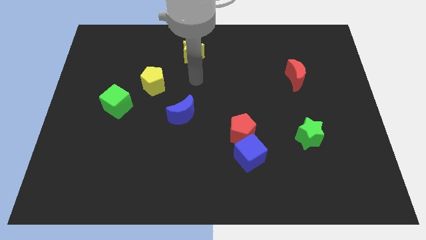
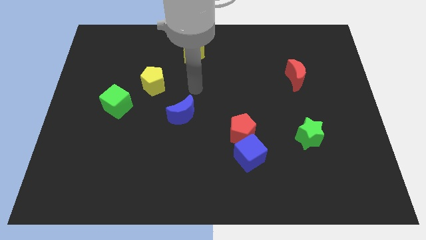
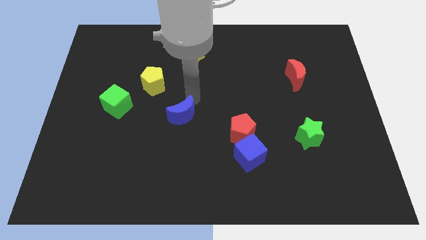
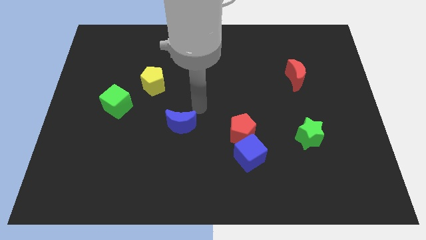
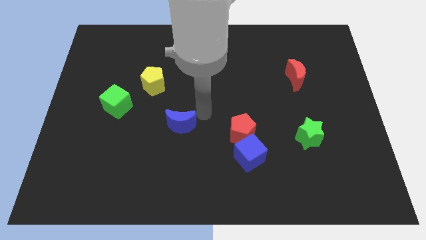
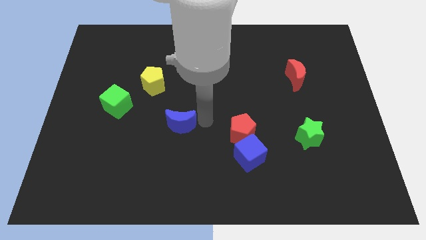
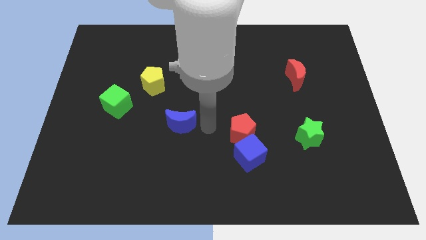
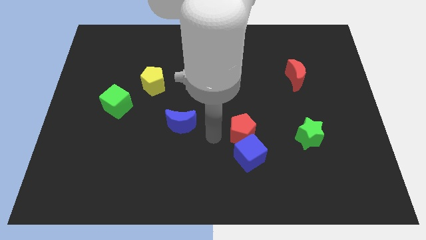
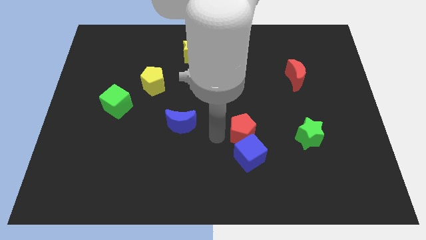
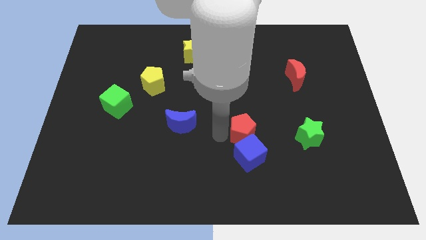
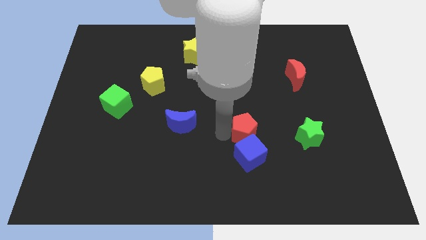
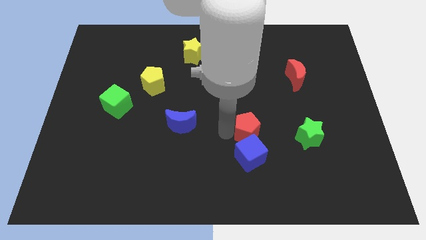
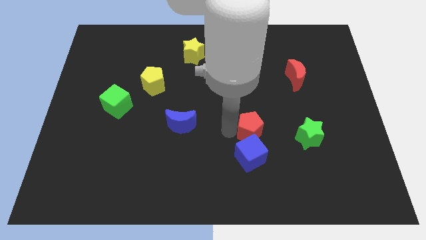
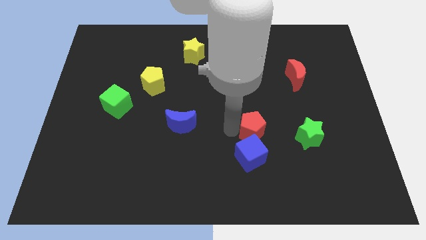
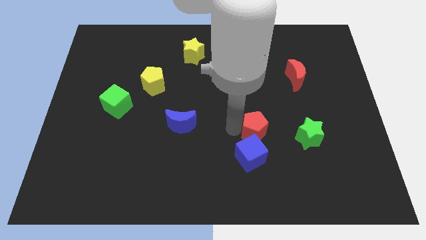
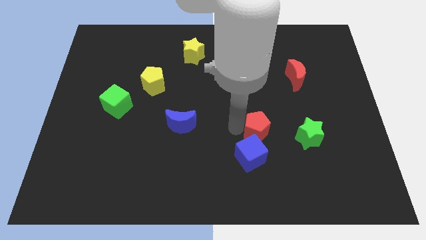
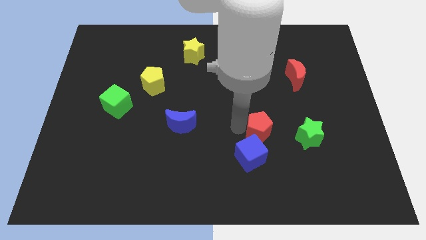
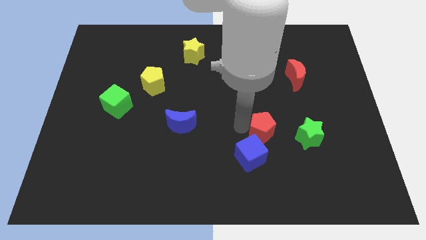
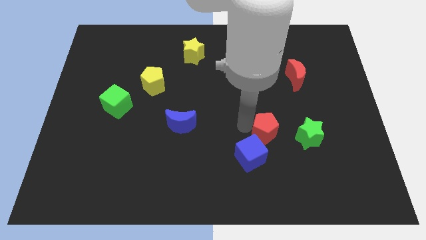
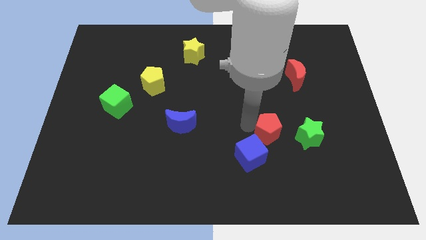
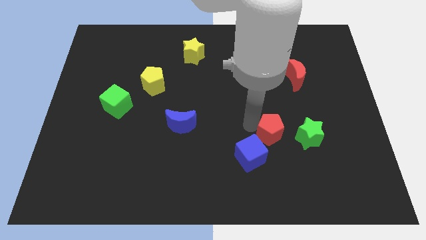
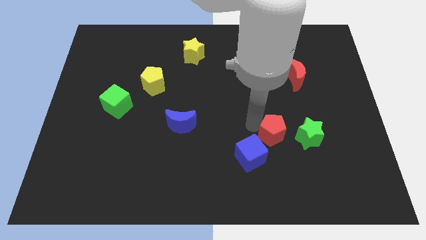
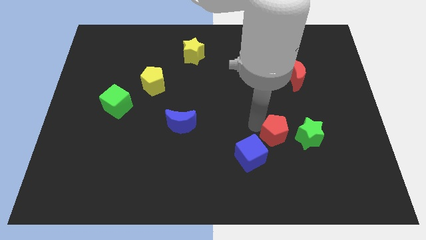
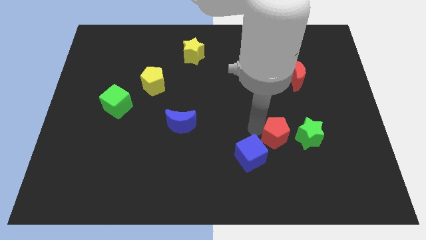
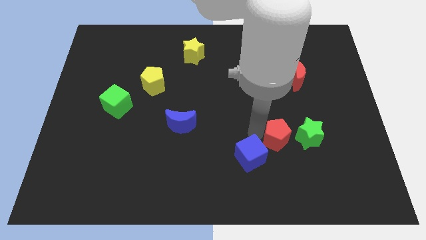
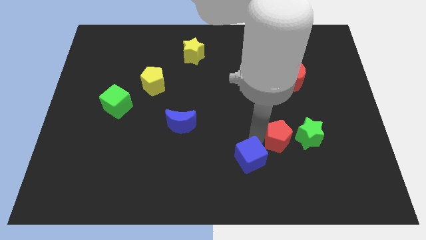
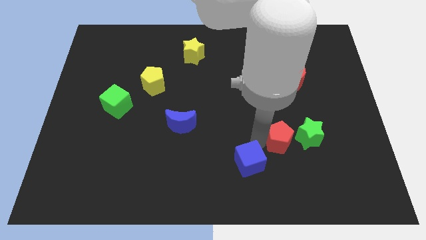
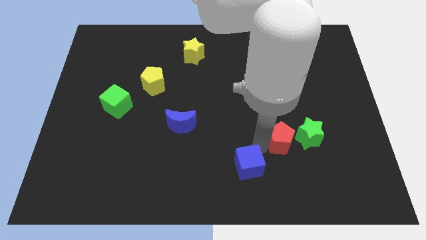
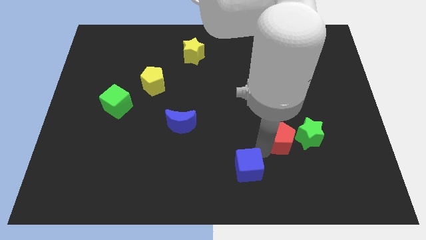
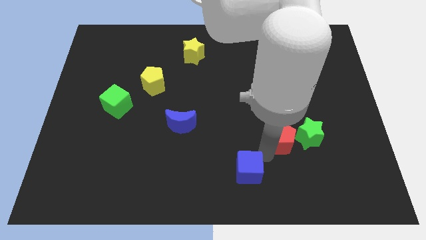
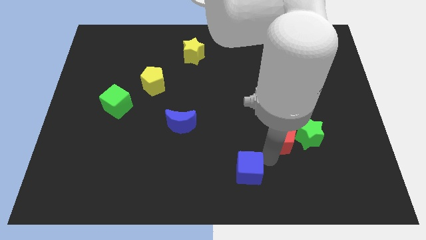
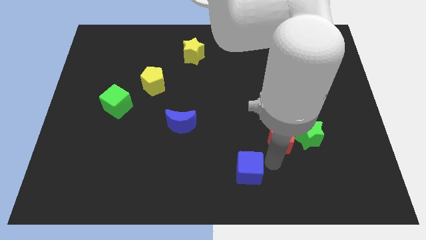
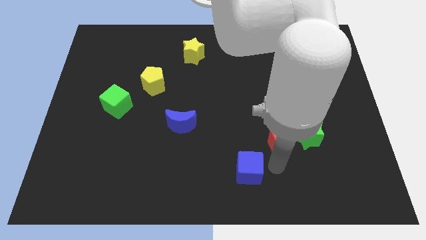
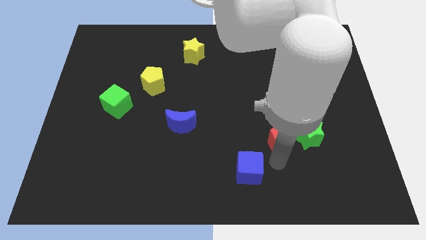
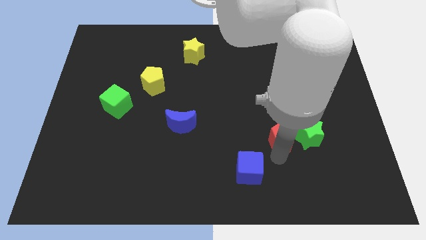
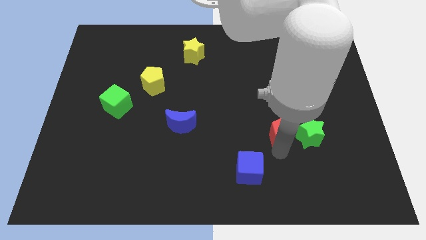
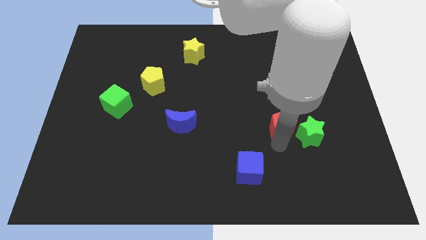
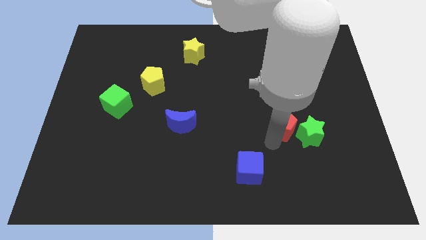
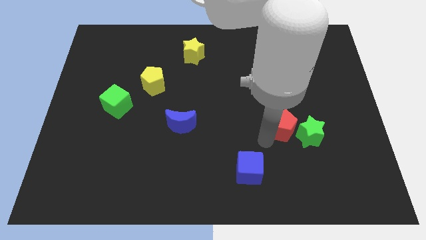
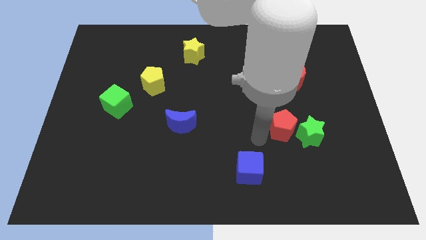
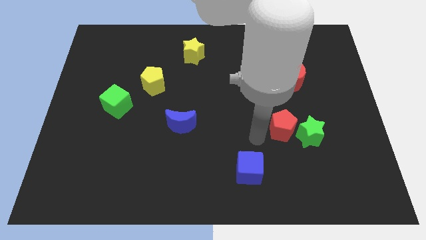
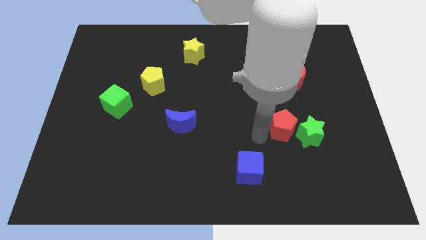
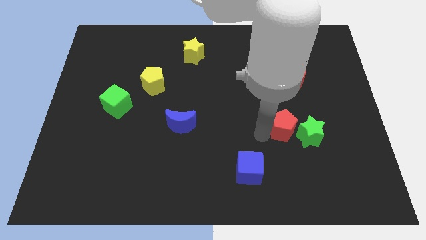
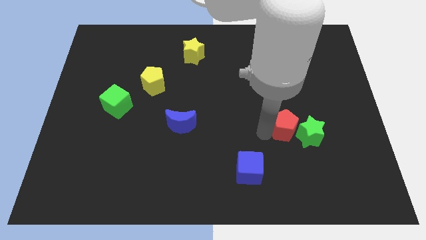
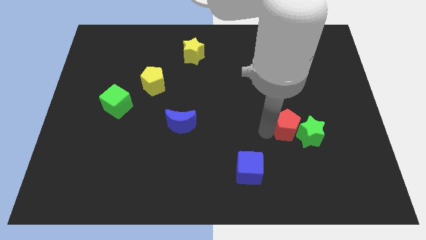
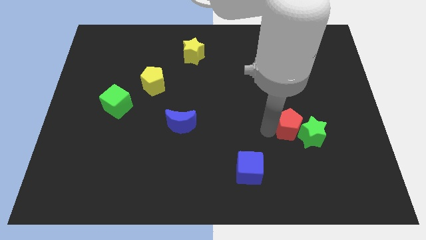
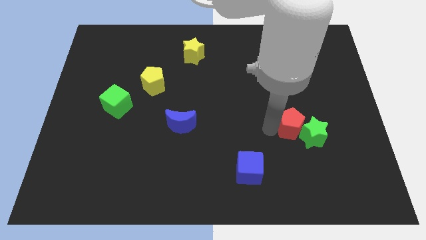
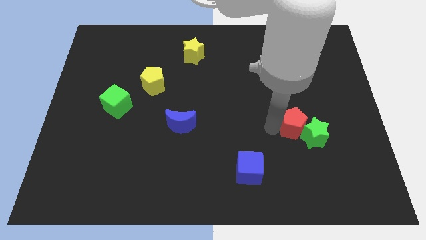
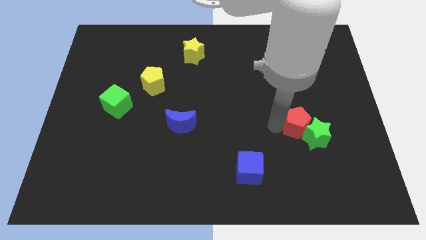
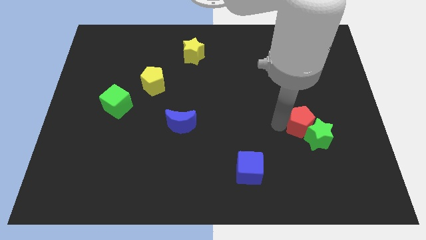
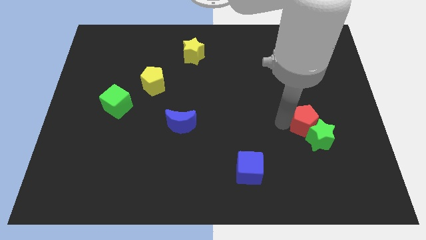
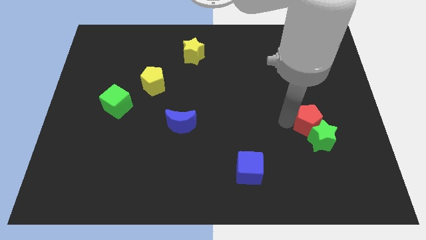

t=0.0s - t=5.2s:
move the red pentagon to the top right side of the green star

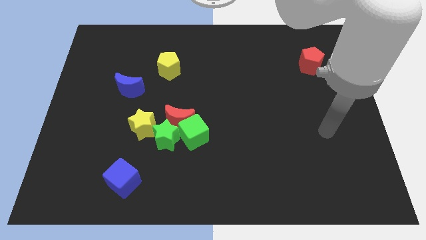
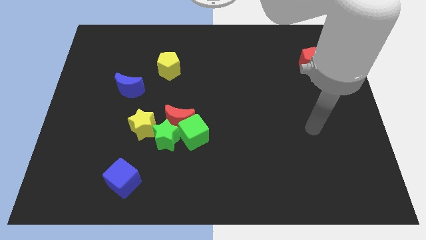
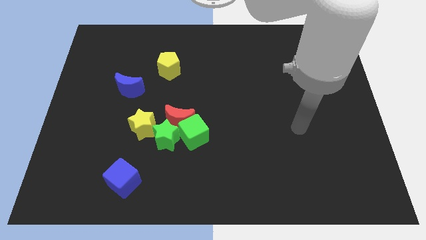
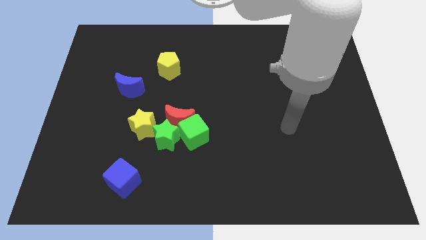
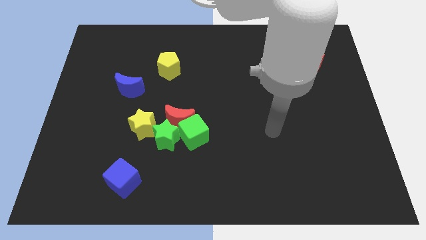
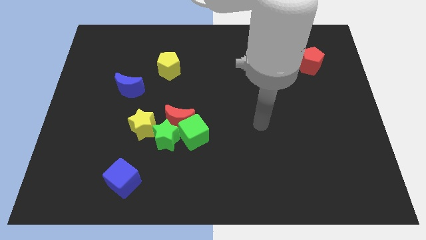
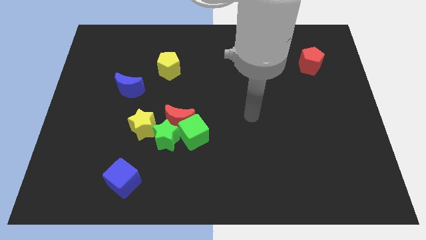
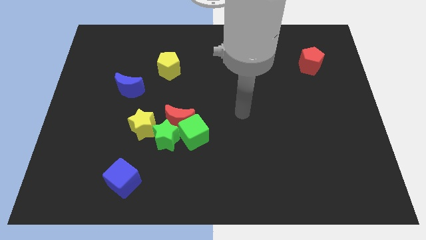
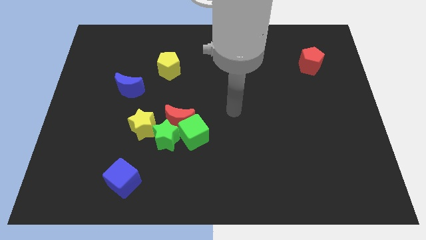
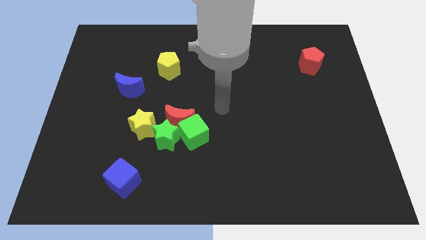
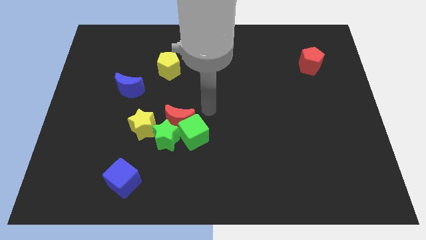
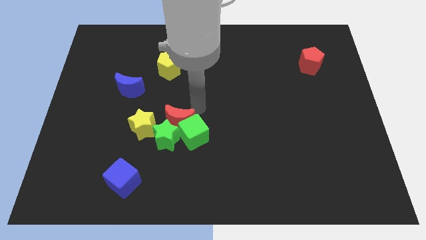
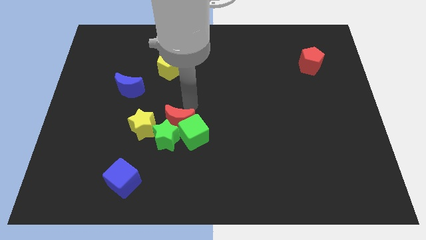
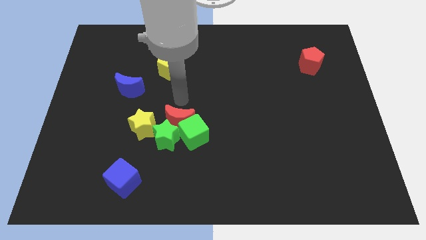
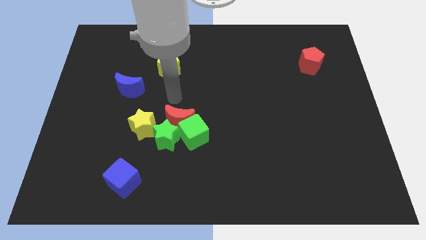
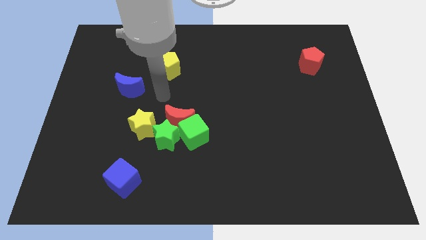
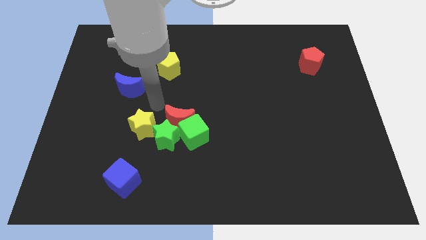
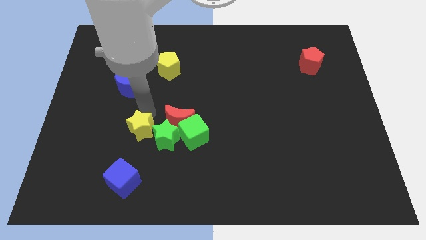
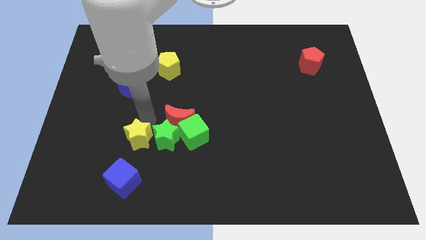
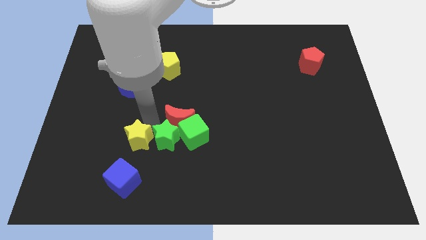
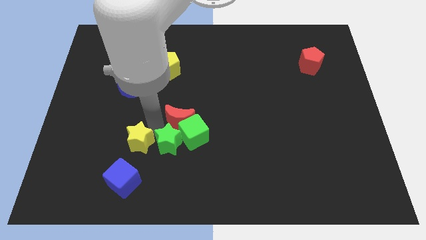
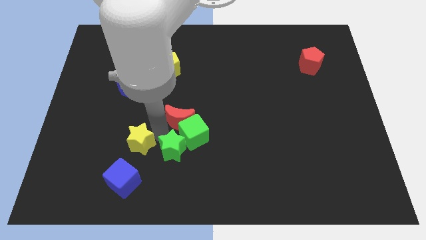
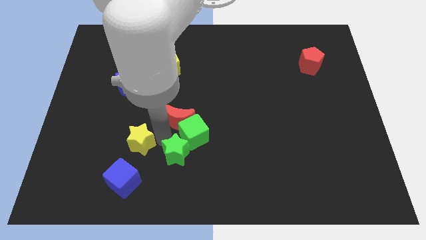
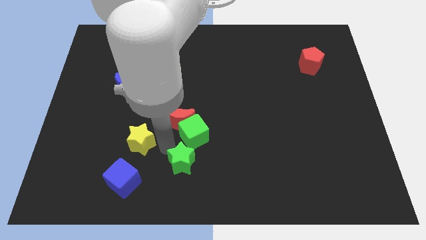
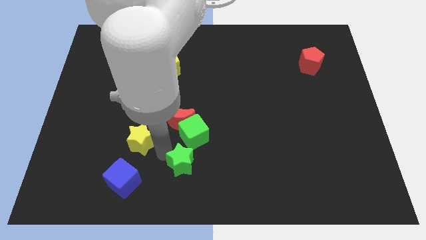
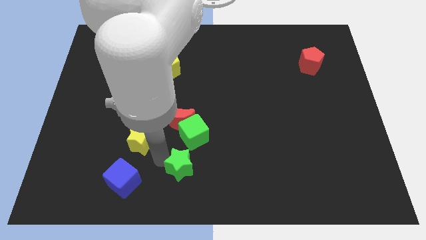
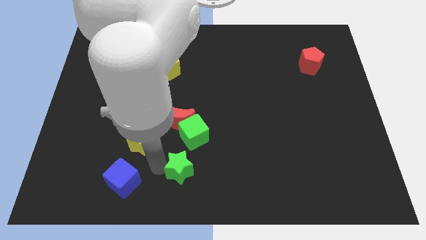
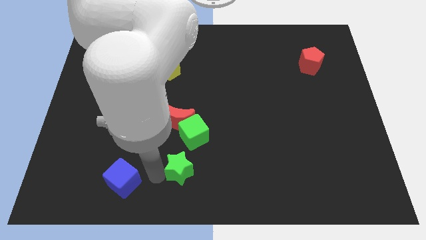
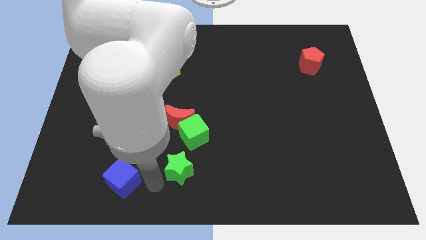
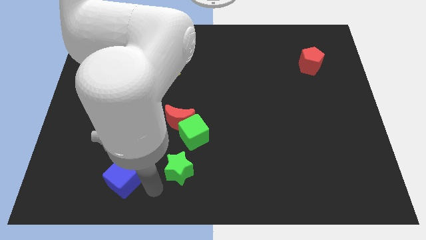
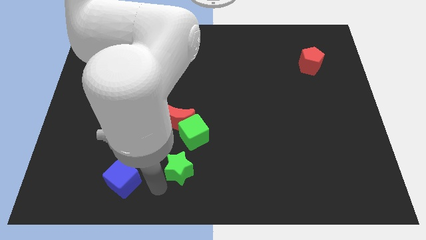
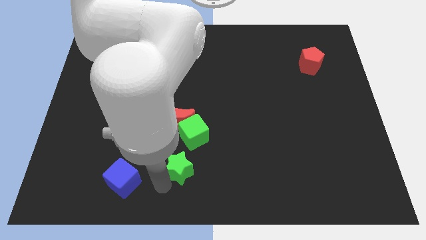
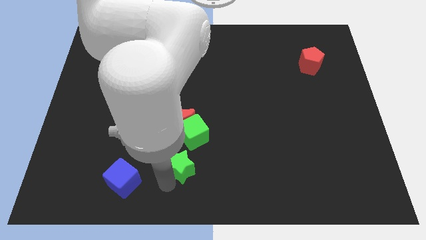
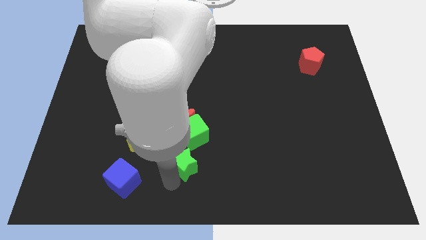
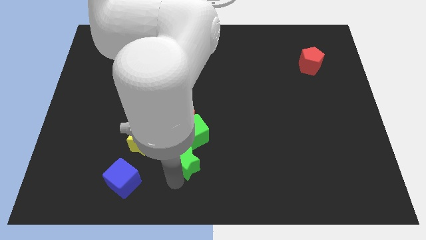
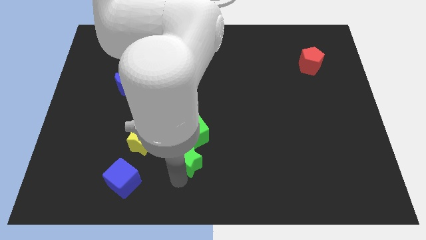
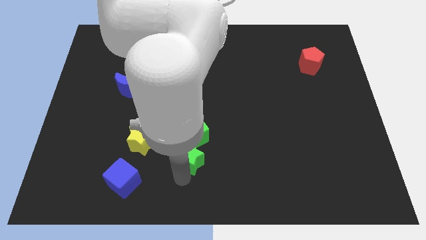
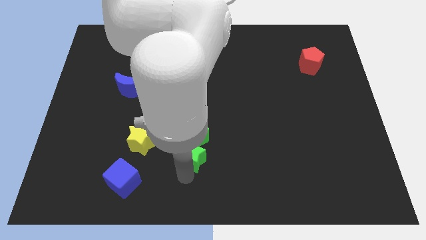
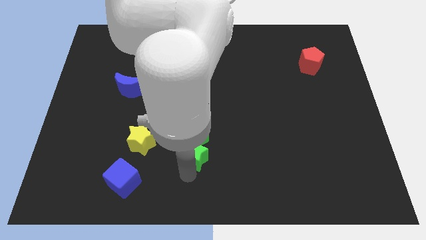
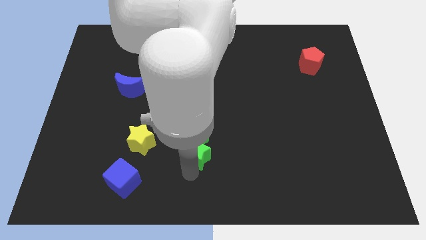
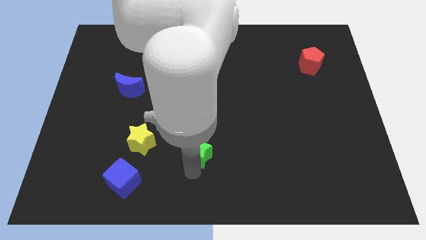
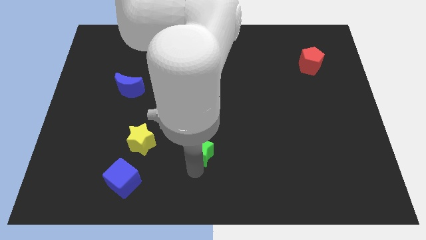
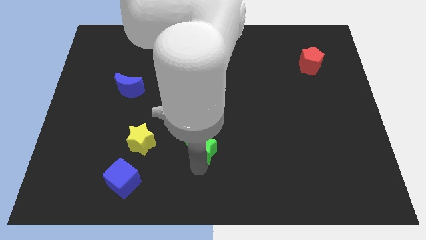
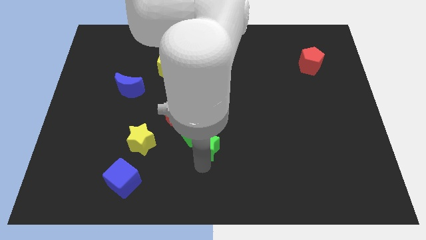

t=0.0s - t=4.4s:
push the green star right of the green cube
